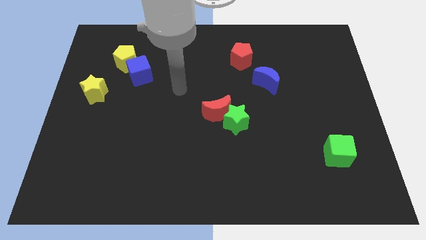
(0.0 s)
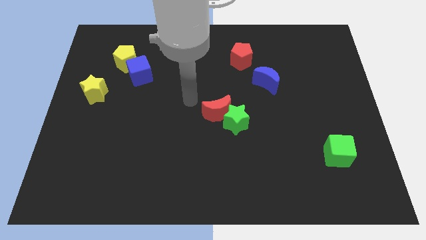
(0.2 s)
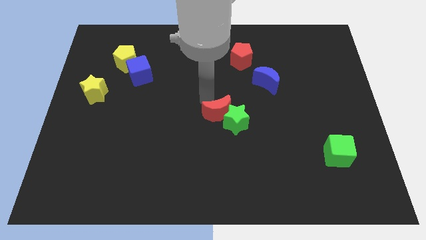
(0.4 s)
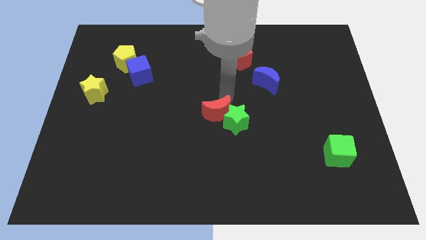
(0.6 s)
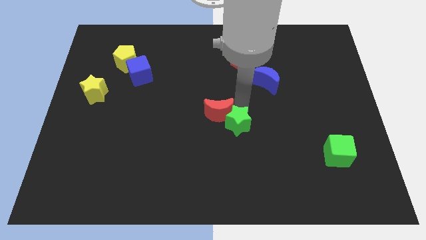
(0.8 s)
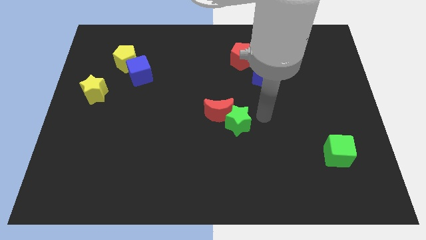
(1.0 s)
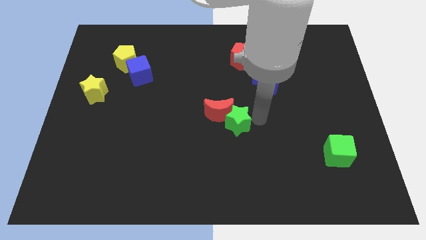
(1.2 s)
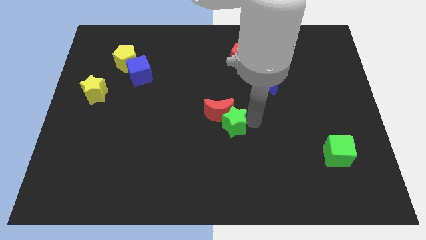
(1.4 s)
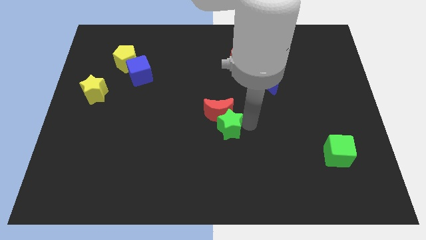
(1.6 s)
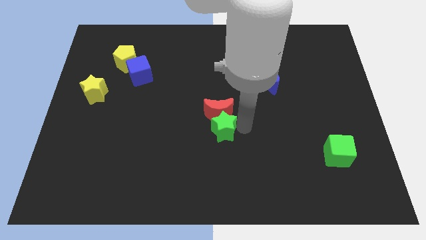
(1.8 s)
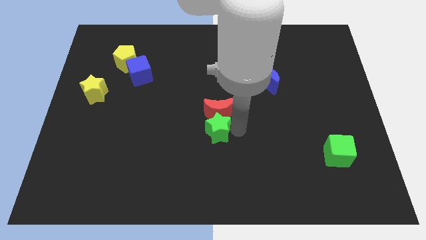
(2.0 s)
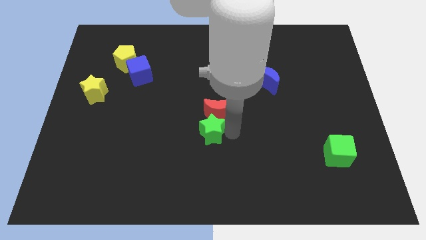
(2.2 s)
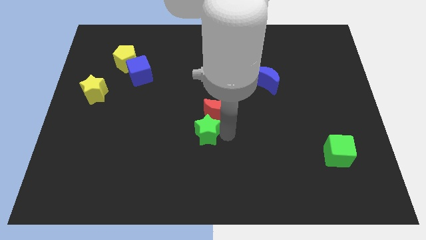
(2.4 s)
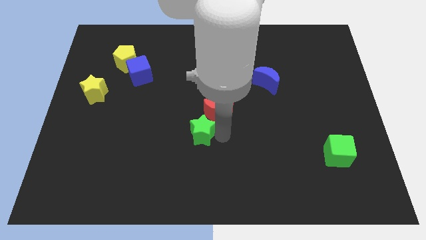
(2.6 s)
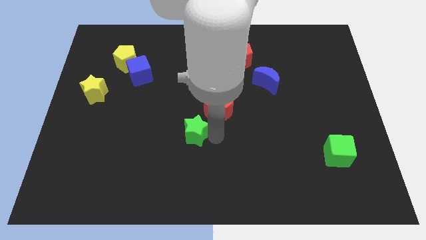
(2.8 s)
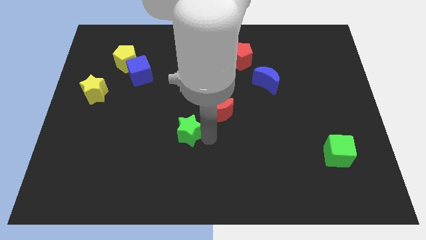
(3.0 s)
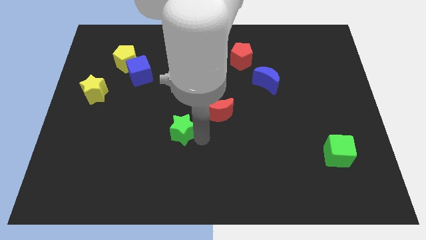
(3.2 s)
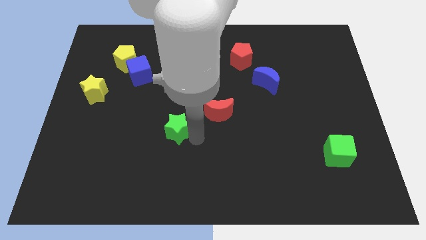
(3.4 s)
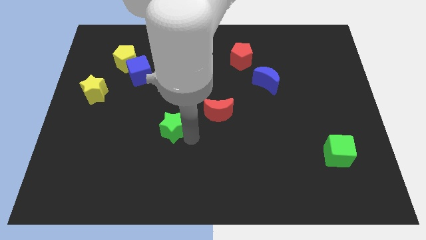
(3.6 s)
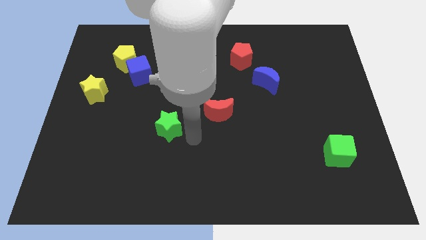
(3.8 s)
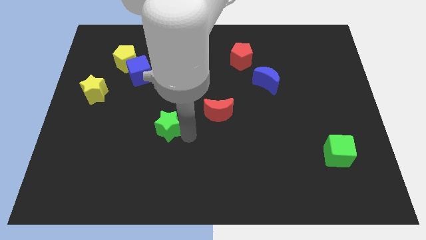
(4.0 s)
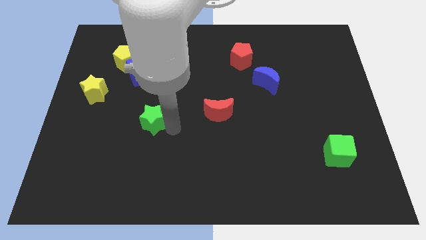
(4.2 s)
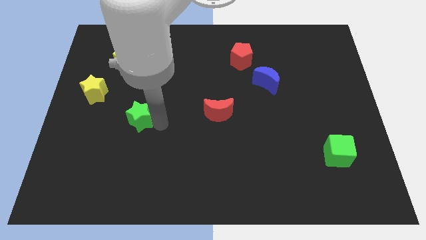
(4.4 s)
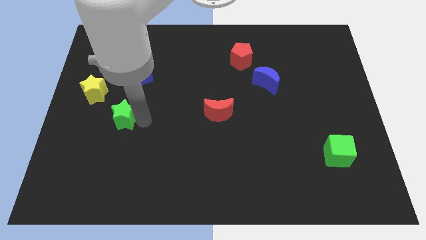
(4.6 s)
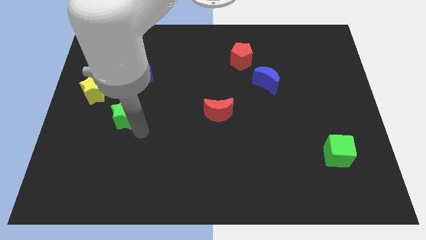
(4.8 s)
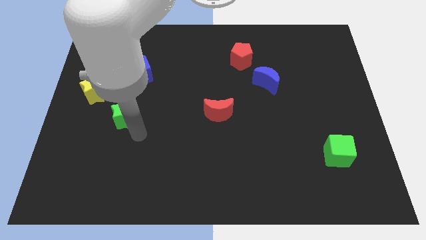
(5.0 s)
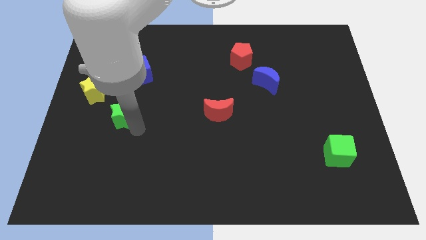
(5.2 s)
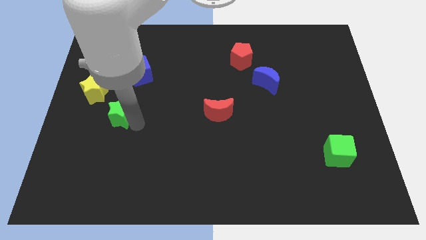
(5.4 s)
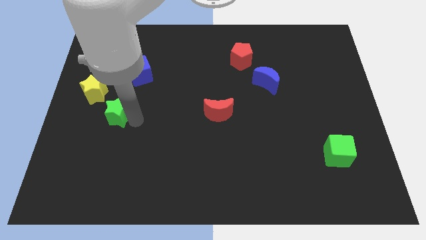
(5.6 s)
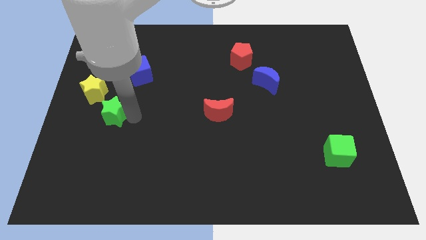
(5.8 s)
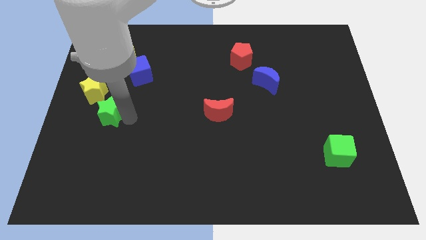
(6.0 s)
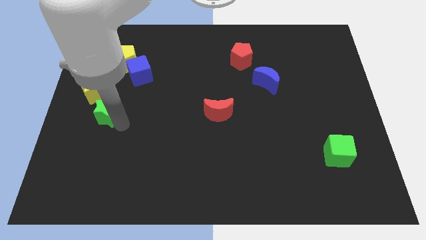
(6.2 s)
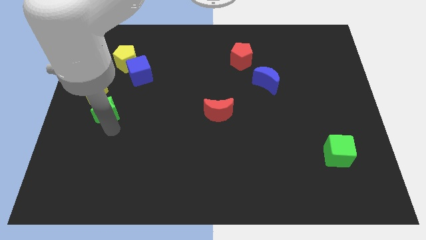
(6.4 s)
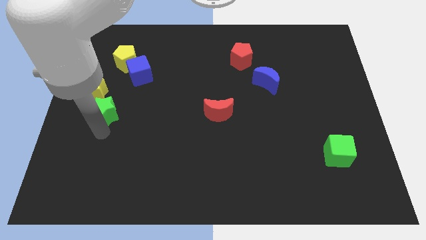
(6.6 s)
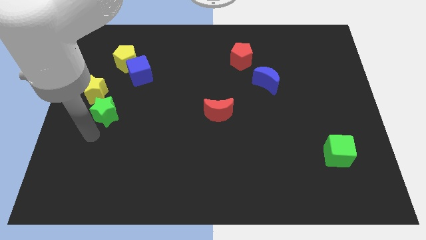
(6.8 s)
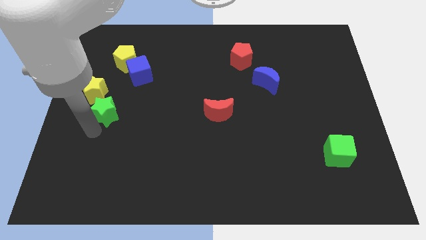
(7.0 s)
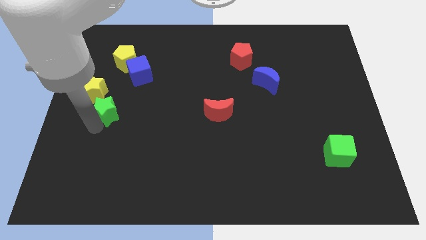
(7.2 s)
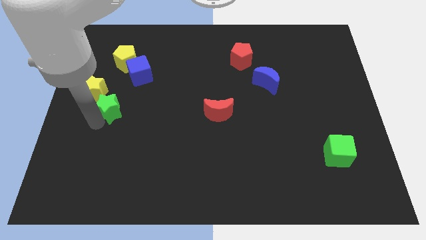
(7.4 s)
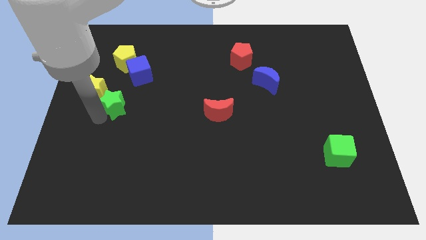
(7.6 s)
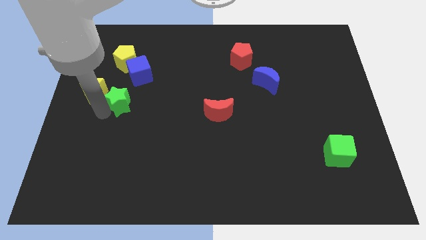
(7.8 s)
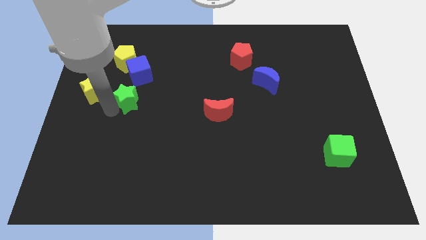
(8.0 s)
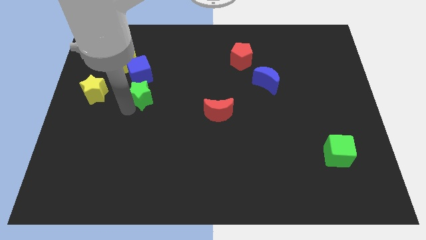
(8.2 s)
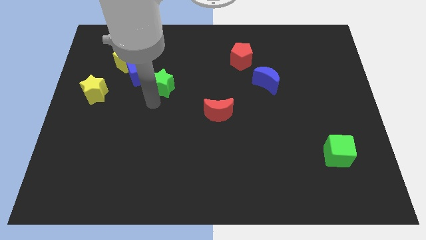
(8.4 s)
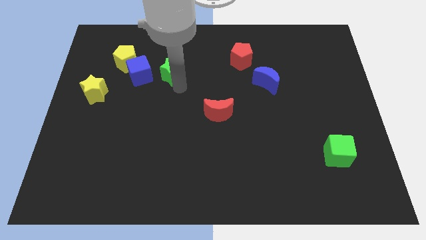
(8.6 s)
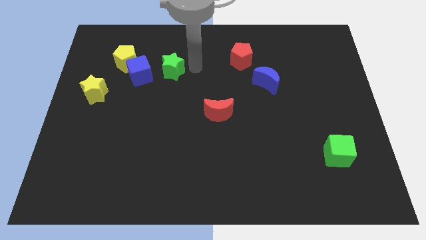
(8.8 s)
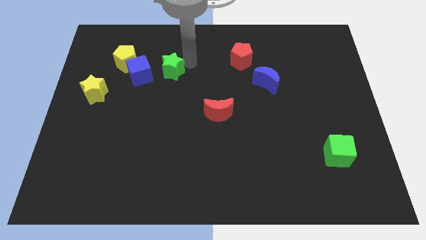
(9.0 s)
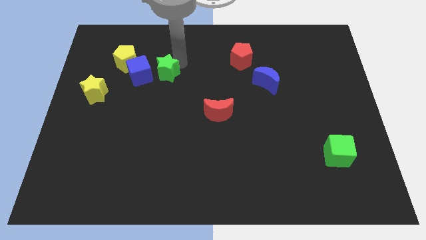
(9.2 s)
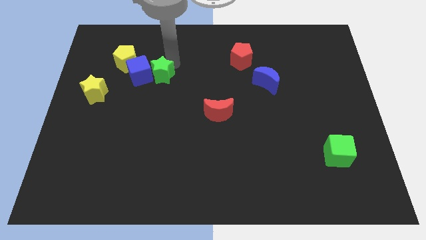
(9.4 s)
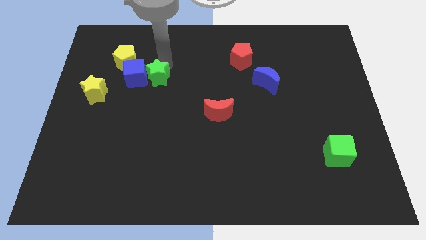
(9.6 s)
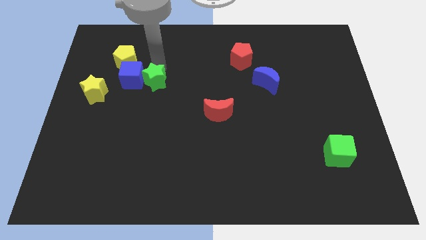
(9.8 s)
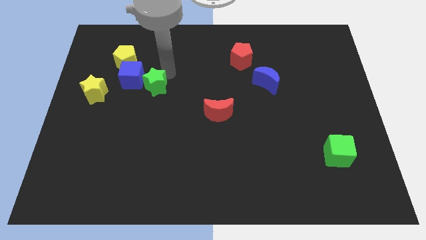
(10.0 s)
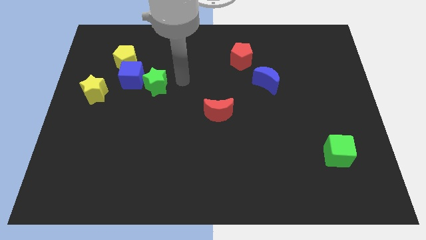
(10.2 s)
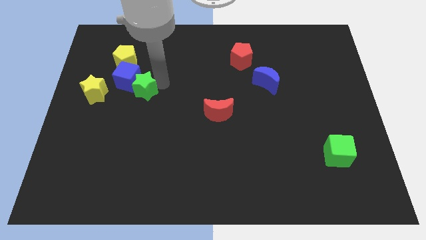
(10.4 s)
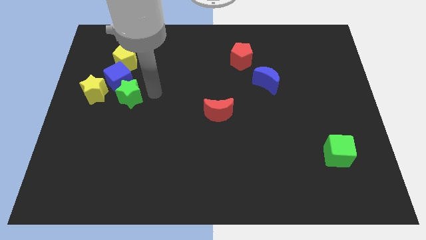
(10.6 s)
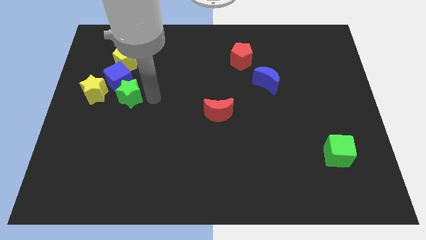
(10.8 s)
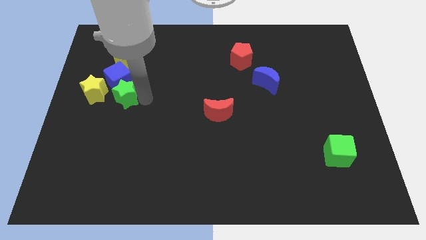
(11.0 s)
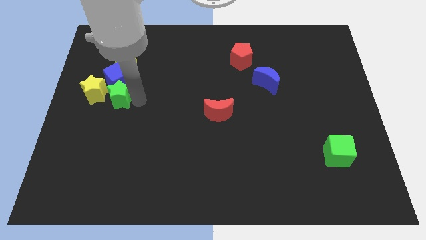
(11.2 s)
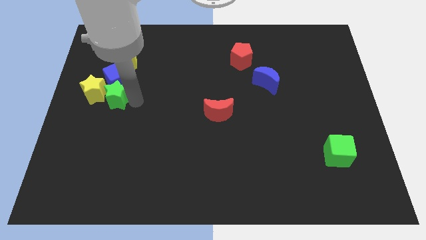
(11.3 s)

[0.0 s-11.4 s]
push the green star to the yellow star

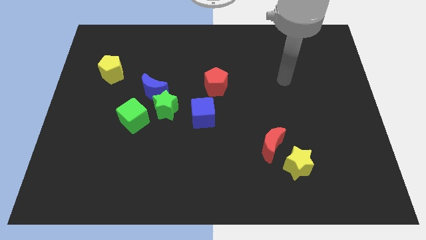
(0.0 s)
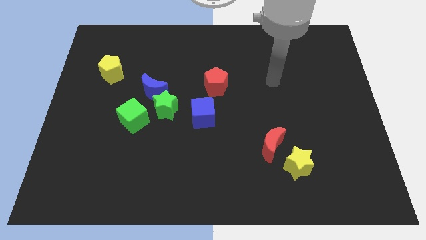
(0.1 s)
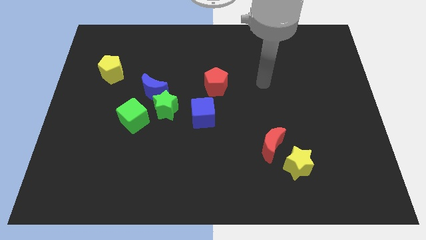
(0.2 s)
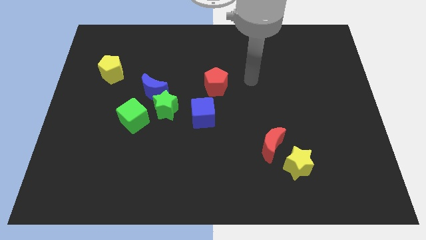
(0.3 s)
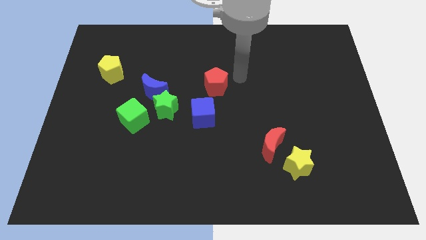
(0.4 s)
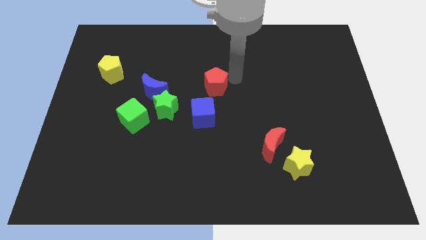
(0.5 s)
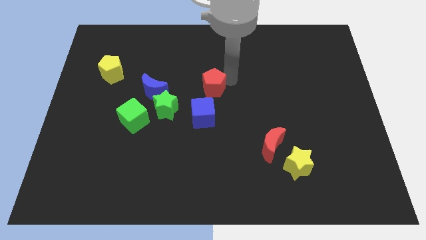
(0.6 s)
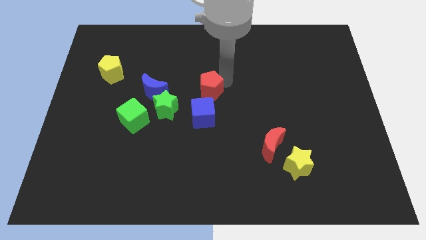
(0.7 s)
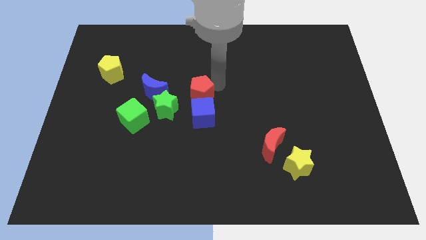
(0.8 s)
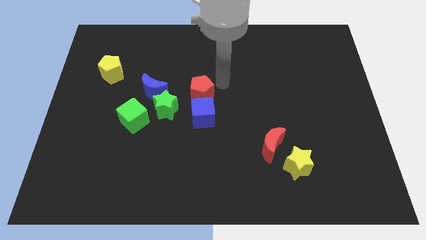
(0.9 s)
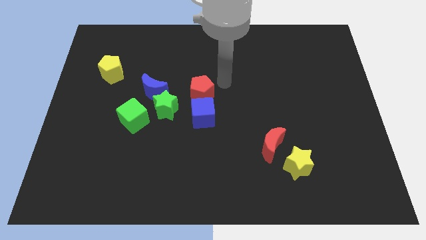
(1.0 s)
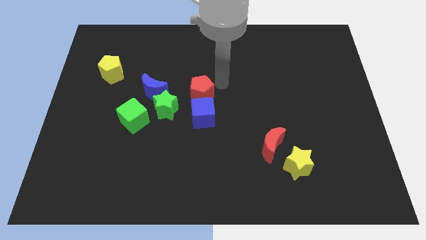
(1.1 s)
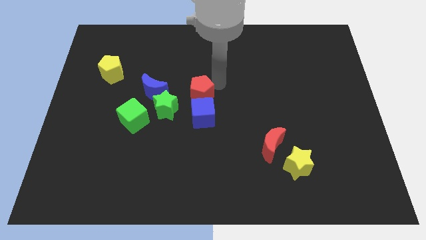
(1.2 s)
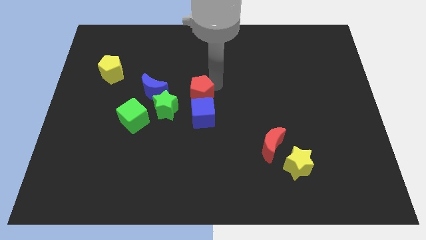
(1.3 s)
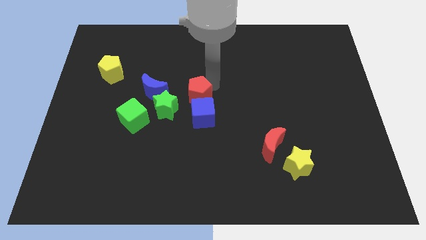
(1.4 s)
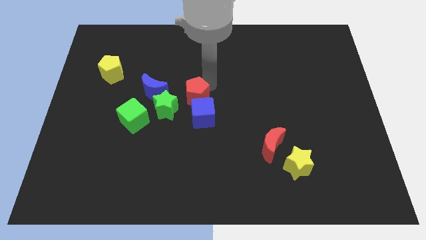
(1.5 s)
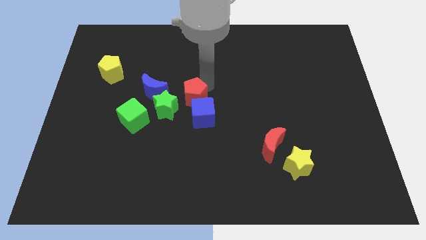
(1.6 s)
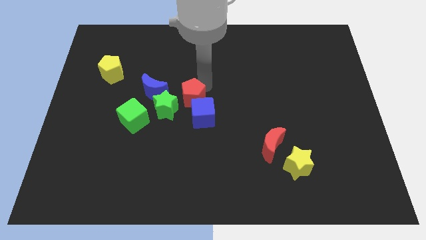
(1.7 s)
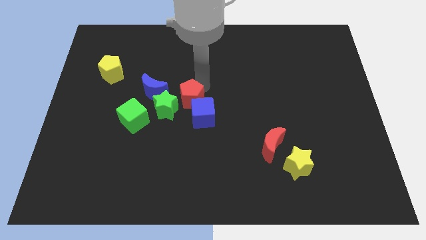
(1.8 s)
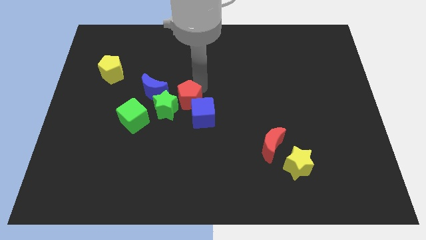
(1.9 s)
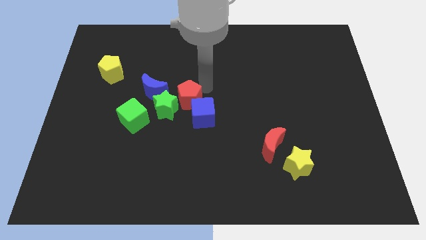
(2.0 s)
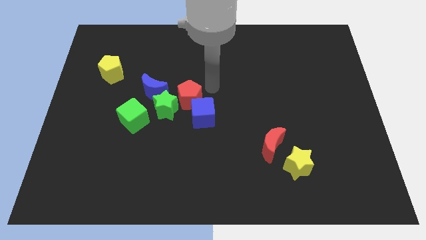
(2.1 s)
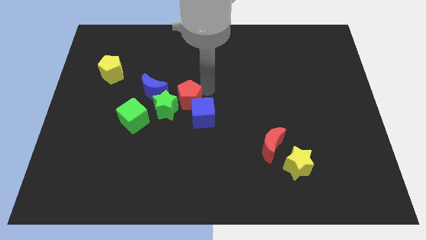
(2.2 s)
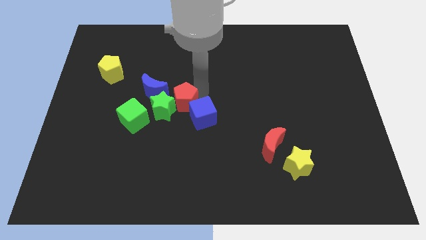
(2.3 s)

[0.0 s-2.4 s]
put the red pentagon to the green star
